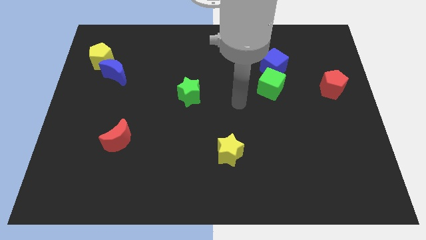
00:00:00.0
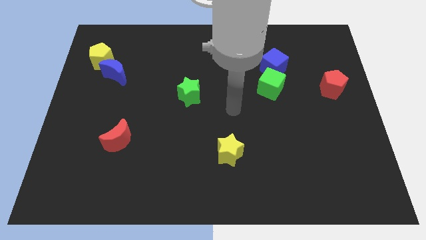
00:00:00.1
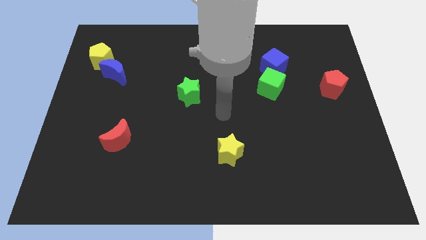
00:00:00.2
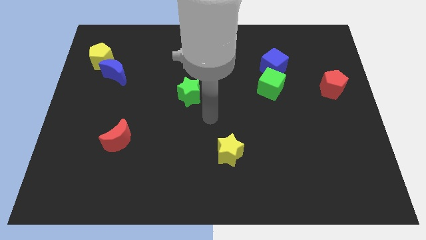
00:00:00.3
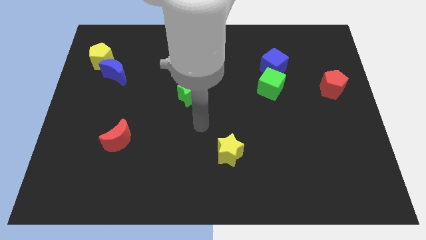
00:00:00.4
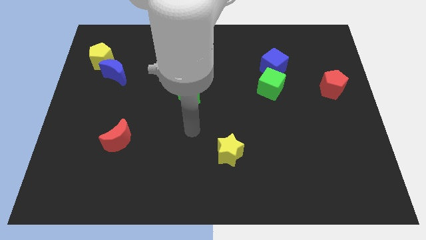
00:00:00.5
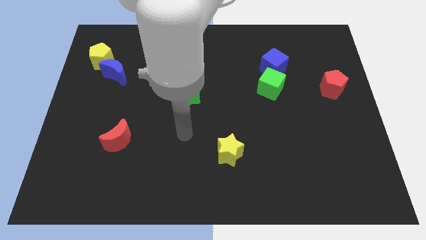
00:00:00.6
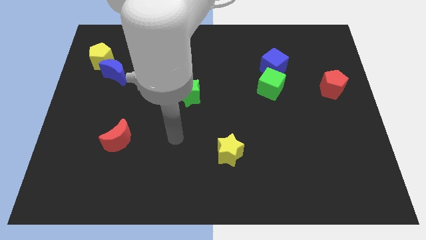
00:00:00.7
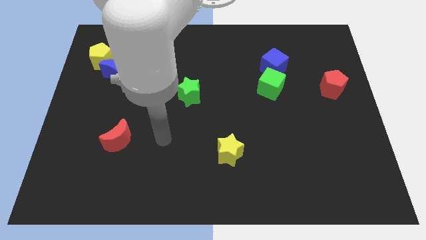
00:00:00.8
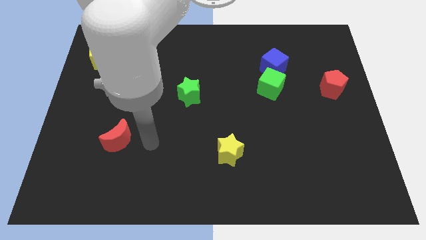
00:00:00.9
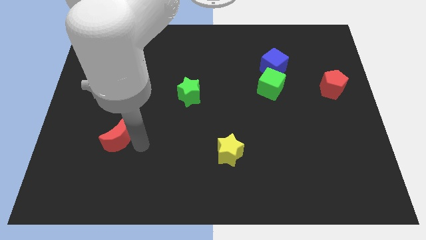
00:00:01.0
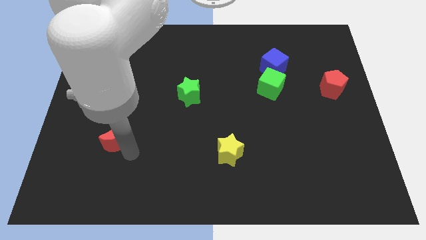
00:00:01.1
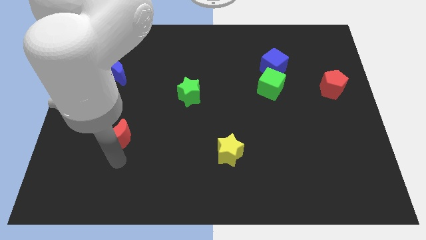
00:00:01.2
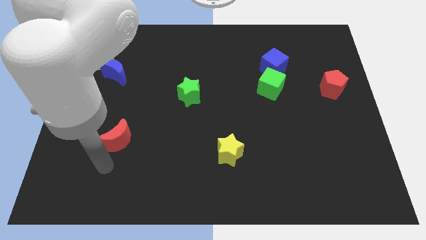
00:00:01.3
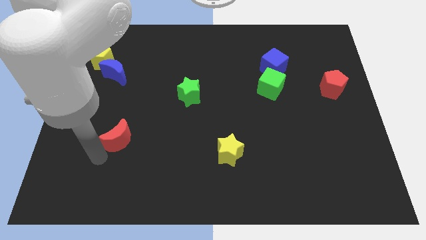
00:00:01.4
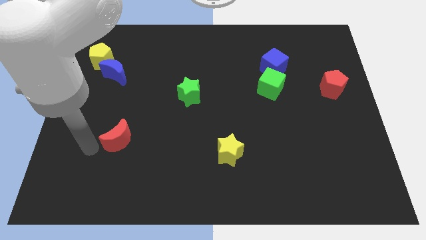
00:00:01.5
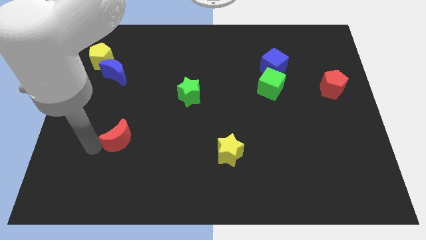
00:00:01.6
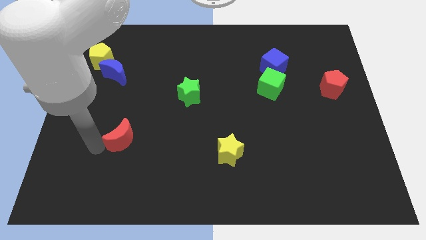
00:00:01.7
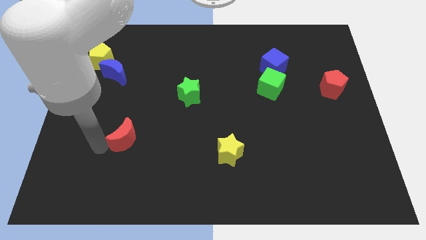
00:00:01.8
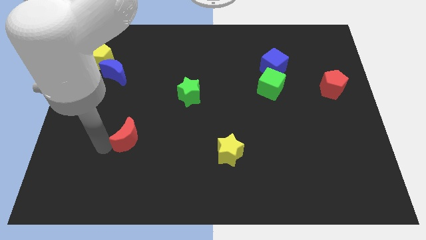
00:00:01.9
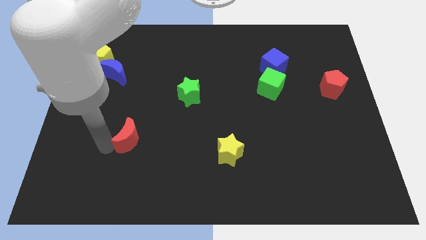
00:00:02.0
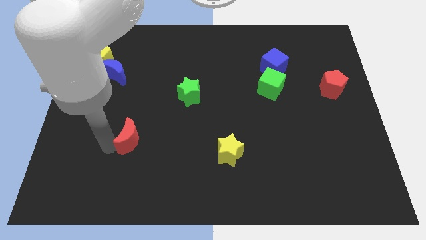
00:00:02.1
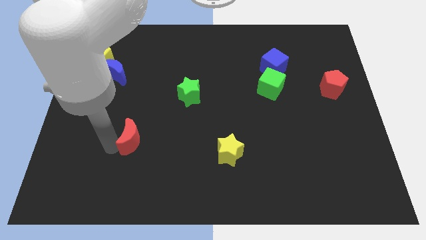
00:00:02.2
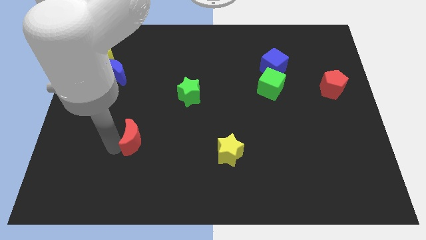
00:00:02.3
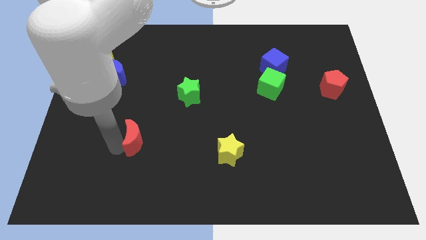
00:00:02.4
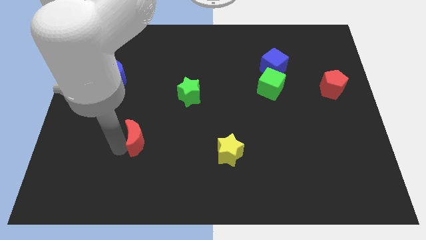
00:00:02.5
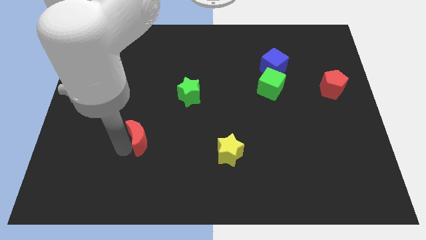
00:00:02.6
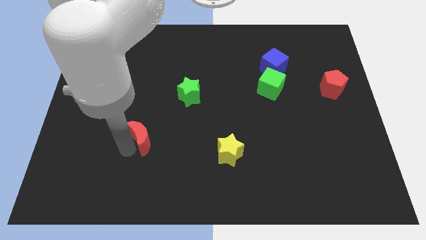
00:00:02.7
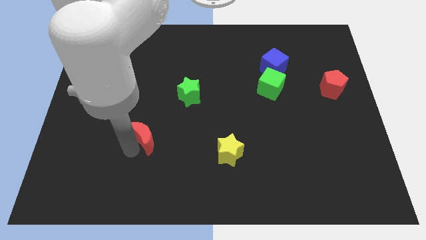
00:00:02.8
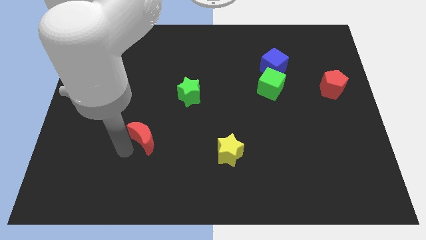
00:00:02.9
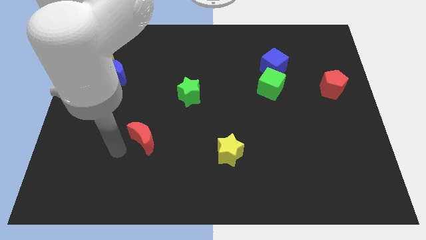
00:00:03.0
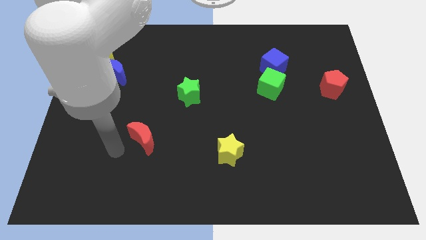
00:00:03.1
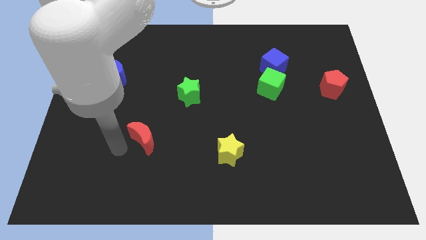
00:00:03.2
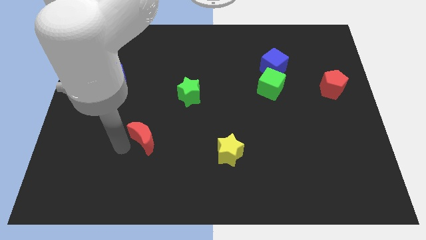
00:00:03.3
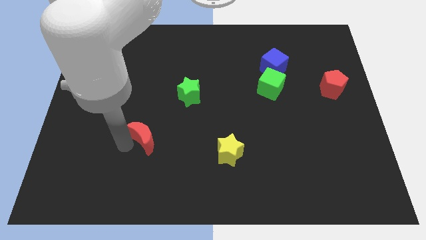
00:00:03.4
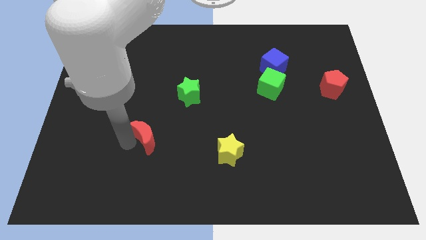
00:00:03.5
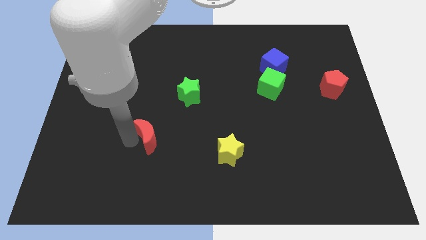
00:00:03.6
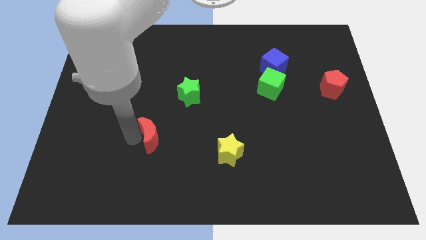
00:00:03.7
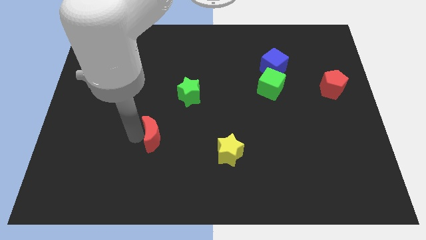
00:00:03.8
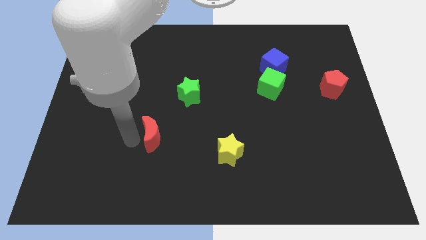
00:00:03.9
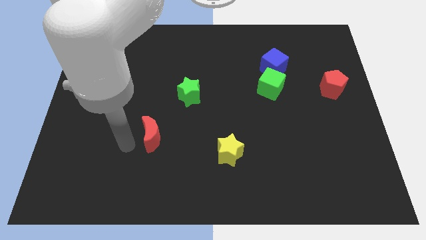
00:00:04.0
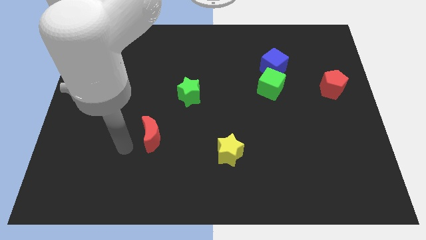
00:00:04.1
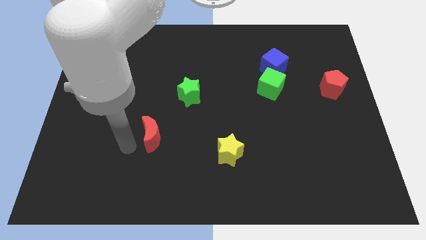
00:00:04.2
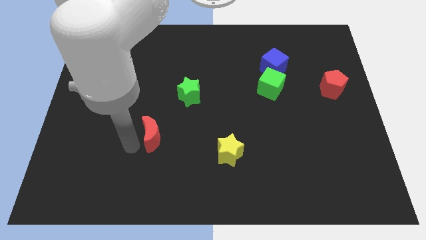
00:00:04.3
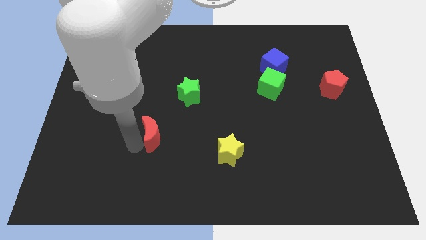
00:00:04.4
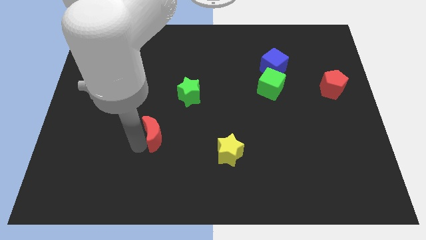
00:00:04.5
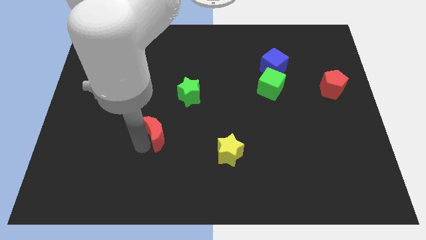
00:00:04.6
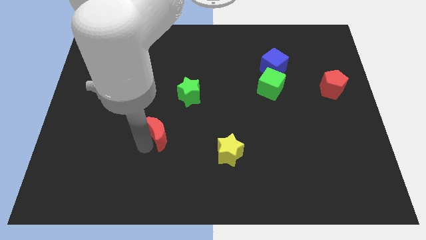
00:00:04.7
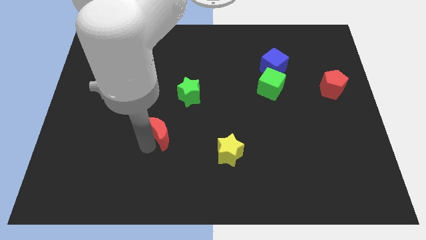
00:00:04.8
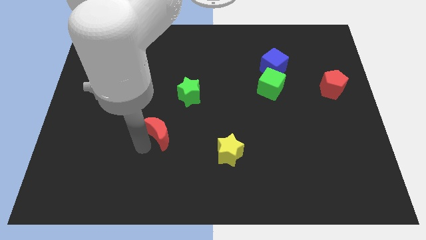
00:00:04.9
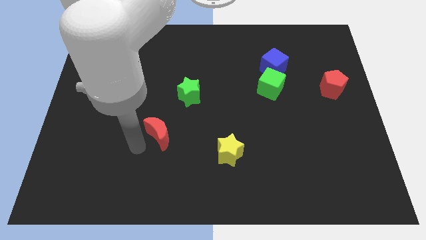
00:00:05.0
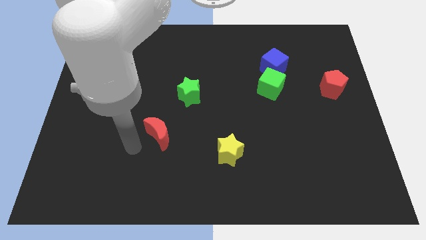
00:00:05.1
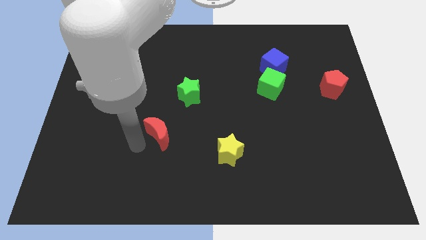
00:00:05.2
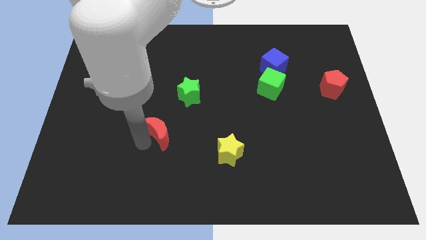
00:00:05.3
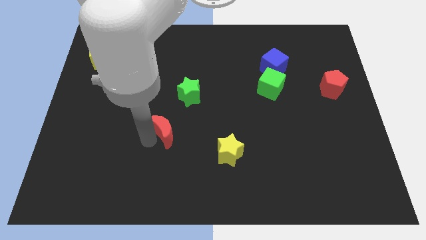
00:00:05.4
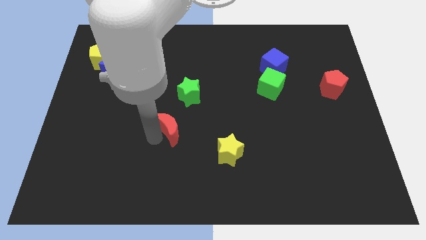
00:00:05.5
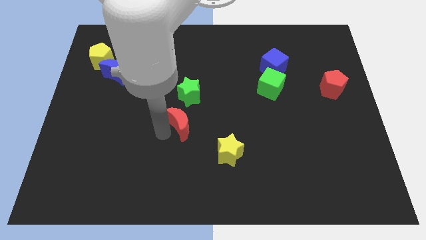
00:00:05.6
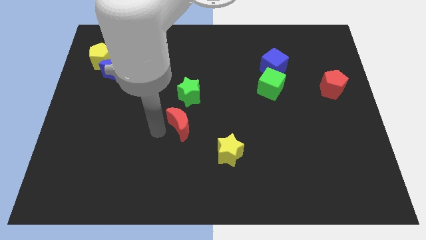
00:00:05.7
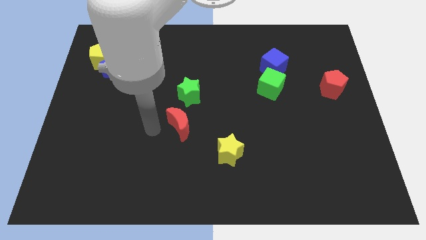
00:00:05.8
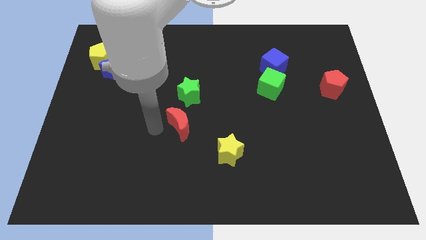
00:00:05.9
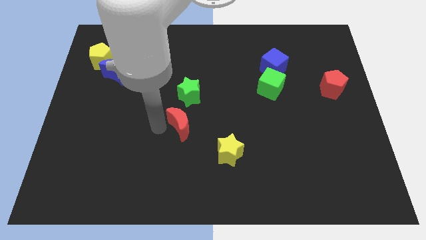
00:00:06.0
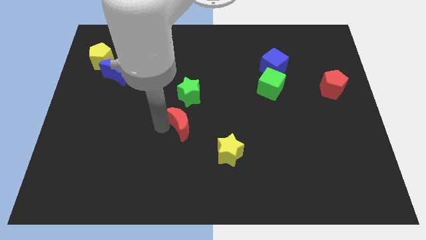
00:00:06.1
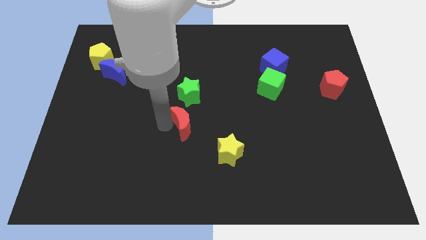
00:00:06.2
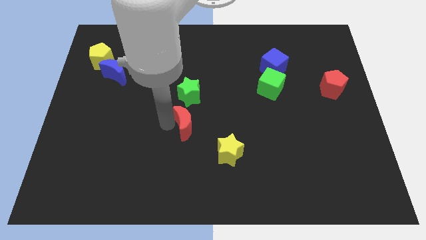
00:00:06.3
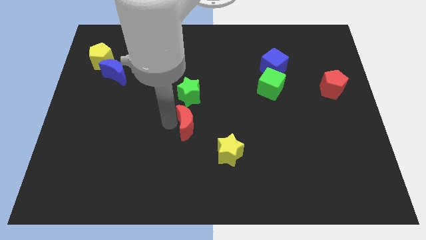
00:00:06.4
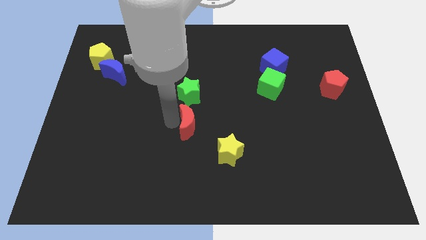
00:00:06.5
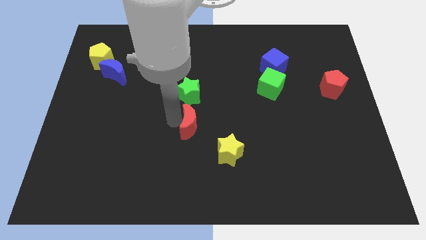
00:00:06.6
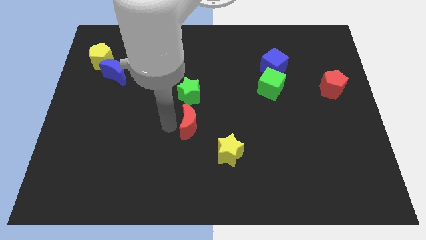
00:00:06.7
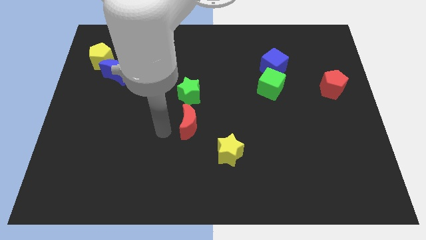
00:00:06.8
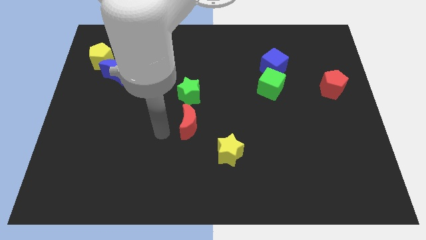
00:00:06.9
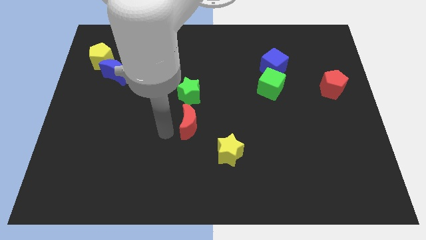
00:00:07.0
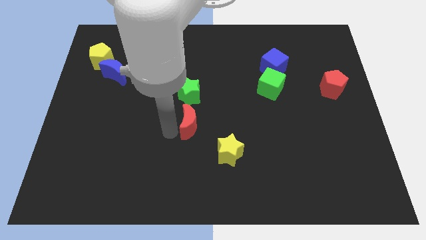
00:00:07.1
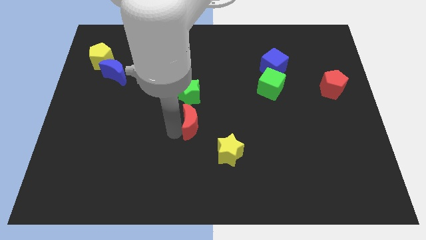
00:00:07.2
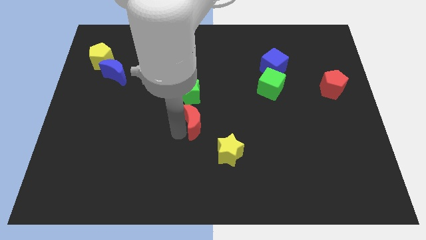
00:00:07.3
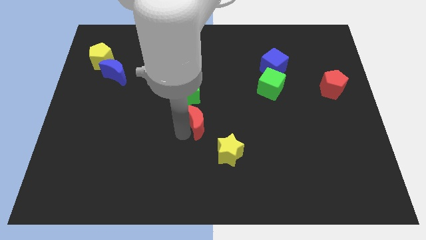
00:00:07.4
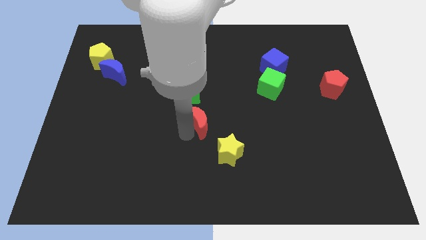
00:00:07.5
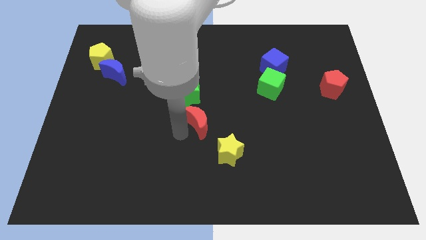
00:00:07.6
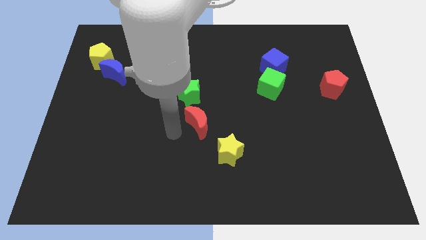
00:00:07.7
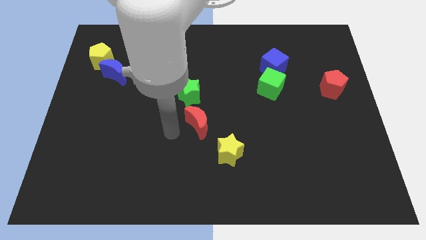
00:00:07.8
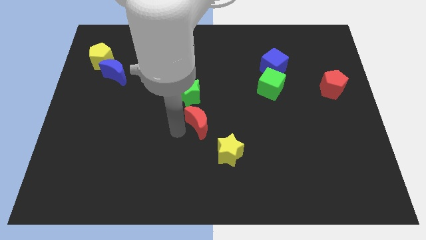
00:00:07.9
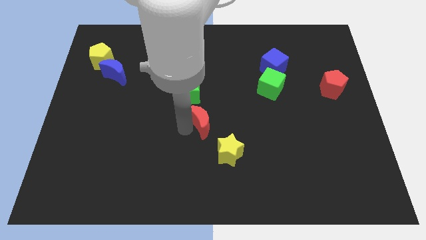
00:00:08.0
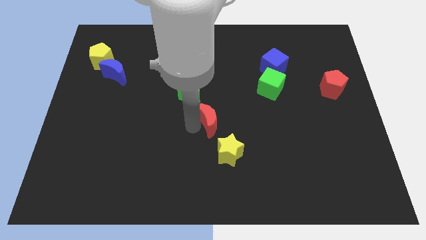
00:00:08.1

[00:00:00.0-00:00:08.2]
push the red moon to the top of the yellow star
